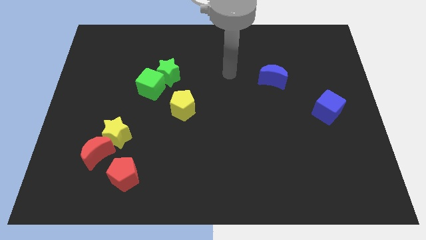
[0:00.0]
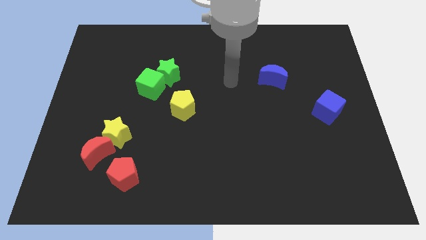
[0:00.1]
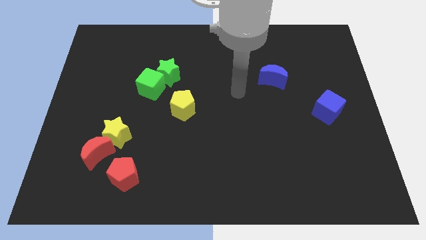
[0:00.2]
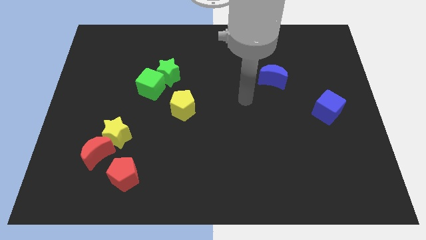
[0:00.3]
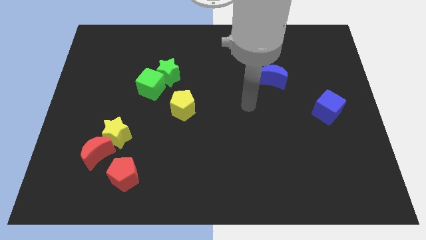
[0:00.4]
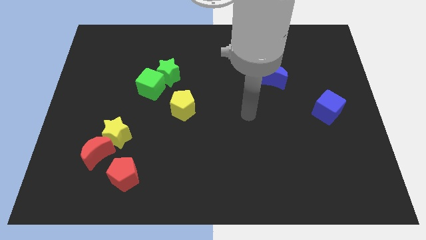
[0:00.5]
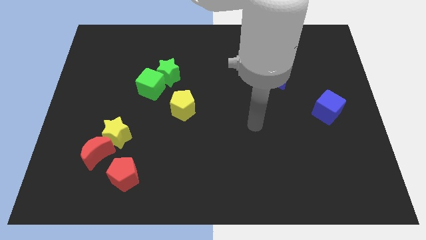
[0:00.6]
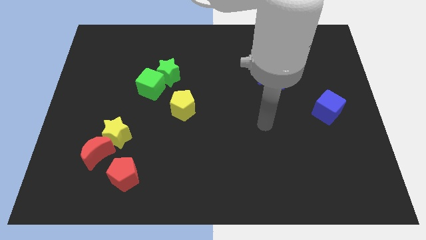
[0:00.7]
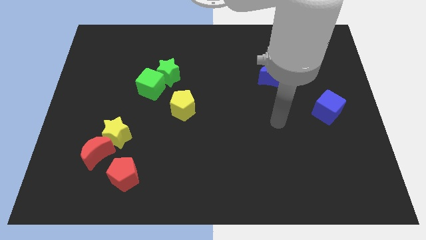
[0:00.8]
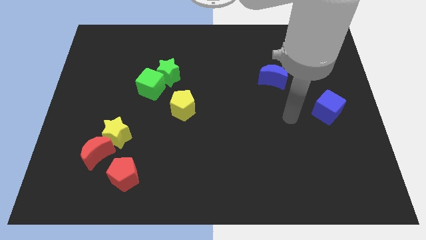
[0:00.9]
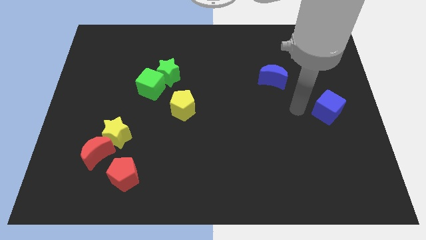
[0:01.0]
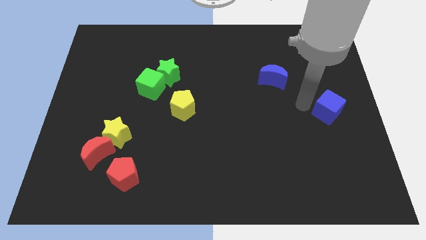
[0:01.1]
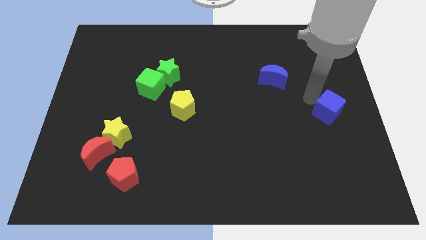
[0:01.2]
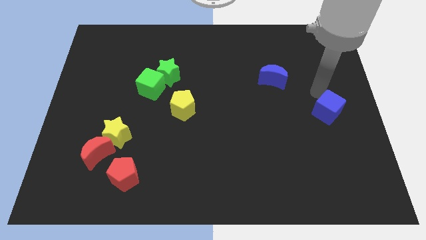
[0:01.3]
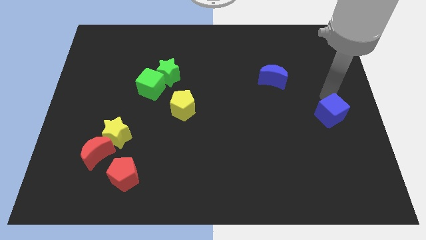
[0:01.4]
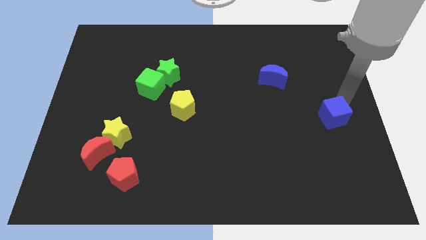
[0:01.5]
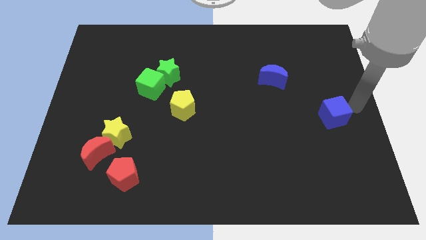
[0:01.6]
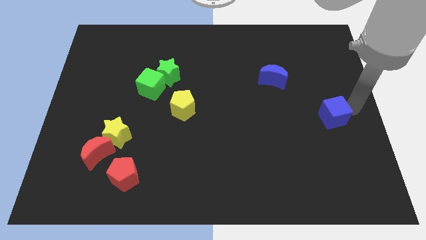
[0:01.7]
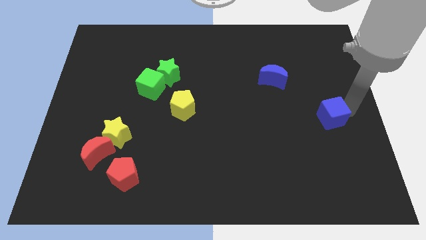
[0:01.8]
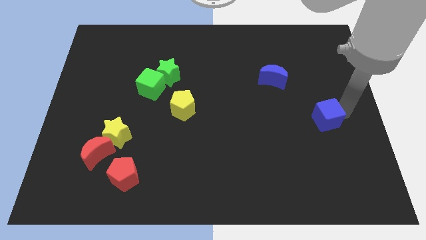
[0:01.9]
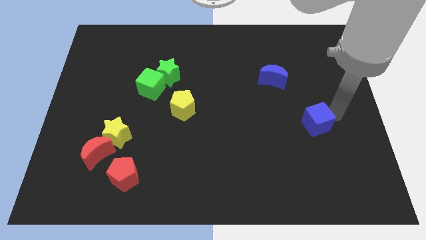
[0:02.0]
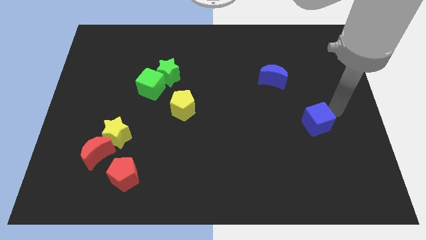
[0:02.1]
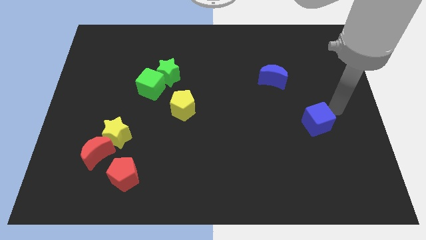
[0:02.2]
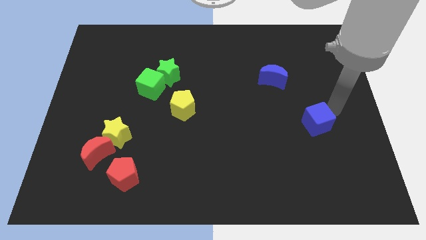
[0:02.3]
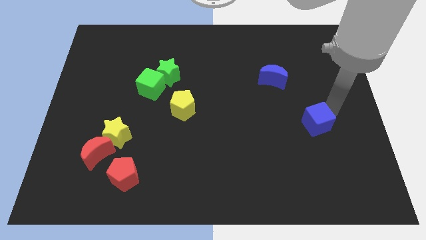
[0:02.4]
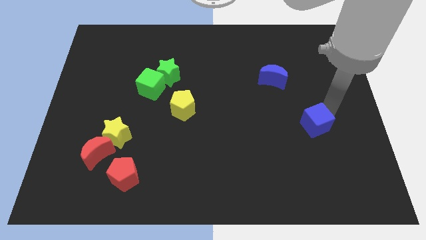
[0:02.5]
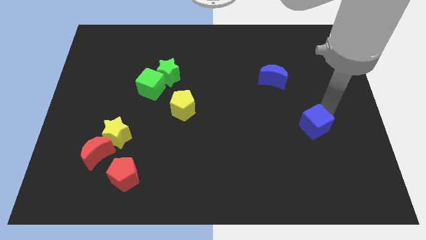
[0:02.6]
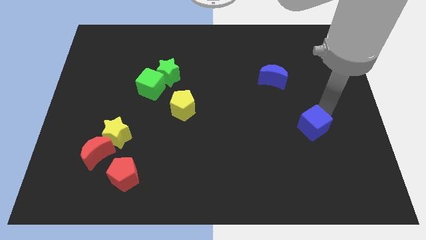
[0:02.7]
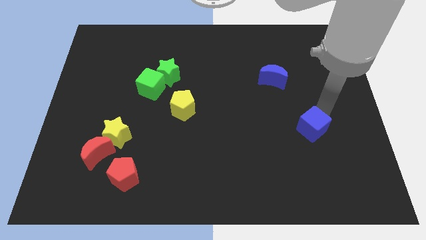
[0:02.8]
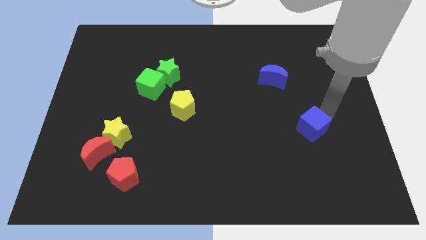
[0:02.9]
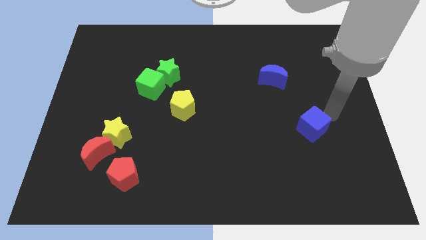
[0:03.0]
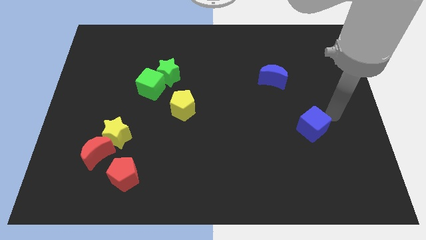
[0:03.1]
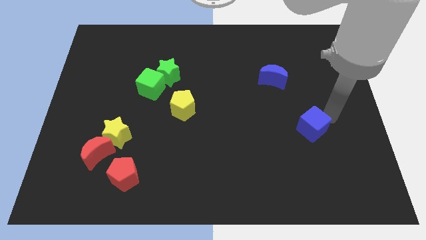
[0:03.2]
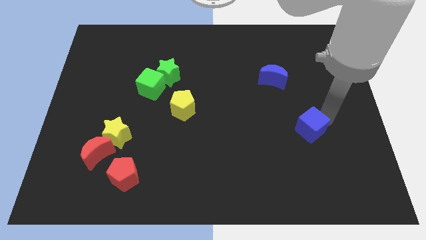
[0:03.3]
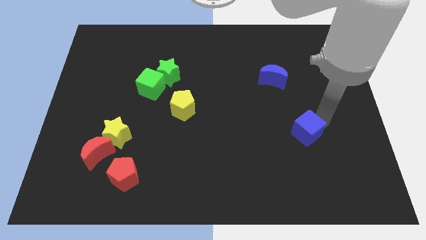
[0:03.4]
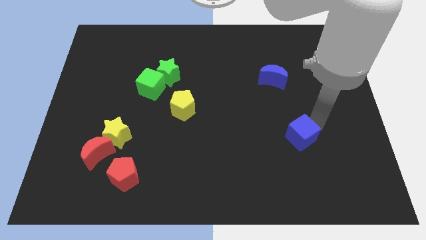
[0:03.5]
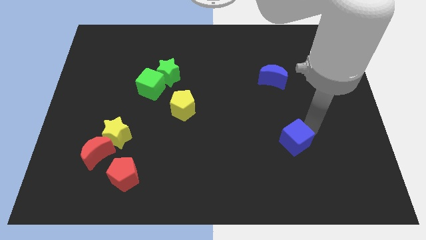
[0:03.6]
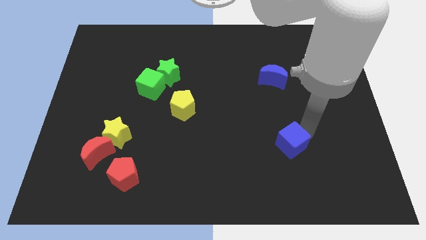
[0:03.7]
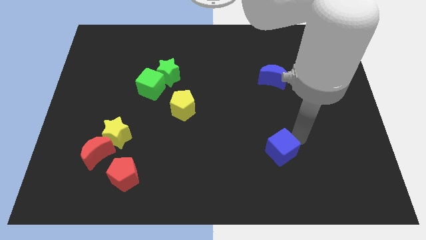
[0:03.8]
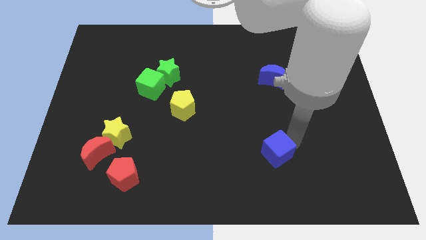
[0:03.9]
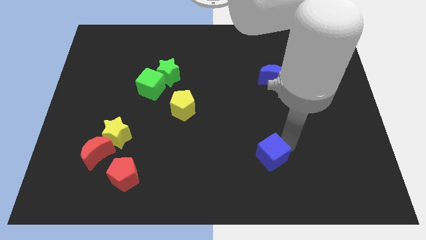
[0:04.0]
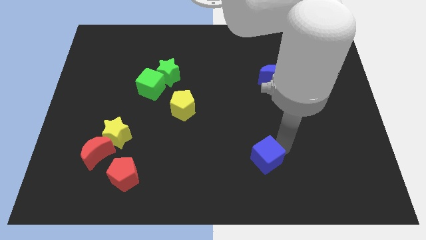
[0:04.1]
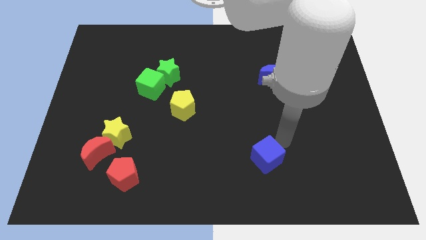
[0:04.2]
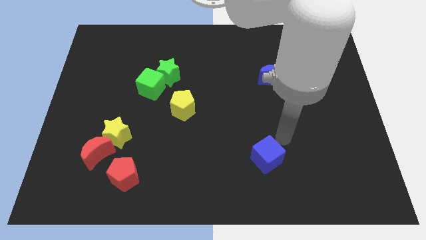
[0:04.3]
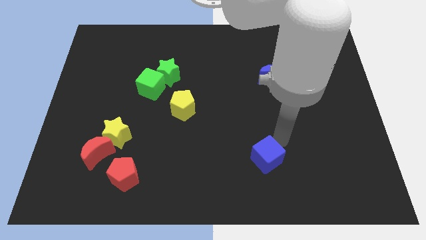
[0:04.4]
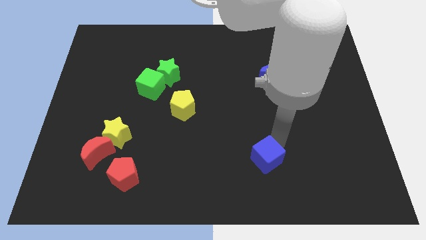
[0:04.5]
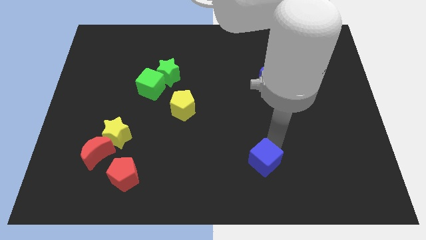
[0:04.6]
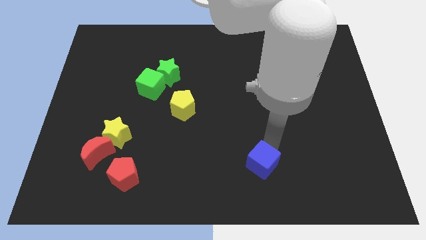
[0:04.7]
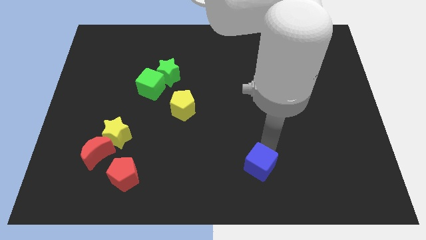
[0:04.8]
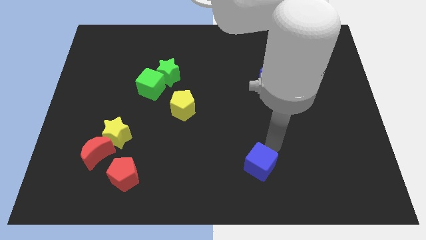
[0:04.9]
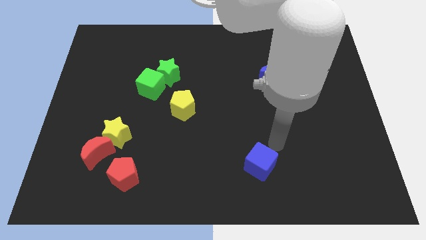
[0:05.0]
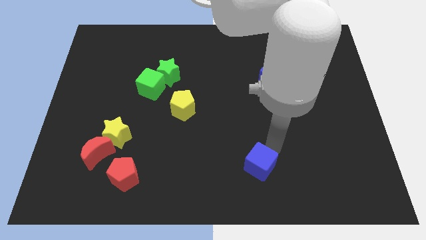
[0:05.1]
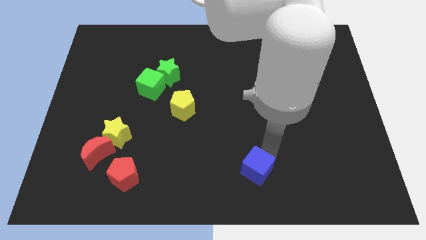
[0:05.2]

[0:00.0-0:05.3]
move the blue cube to the bottom side

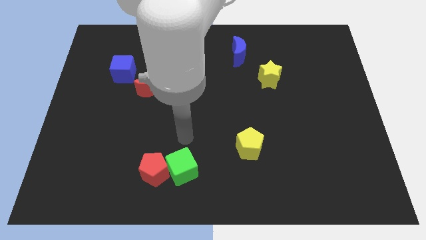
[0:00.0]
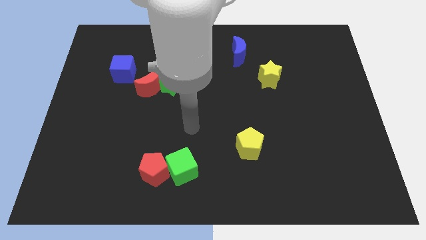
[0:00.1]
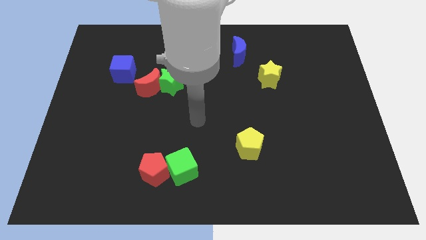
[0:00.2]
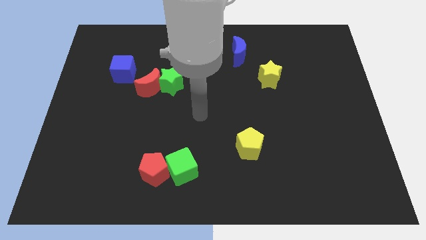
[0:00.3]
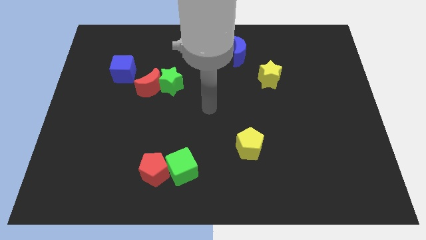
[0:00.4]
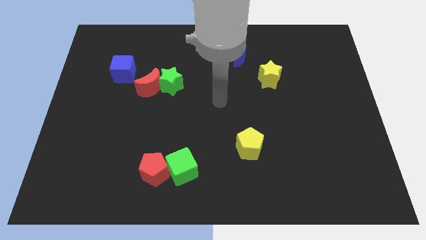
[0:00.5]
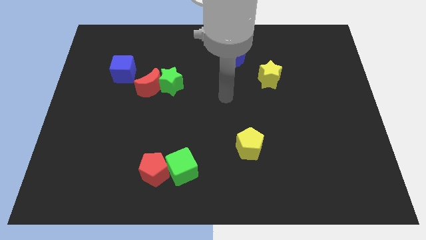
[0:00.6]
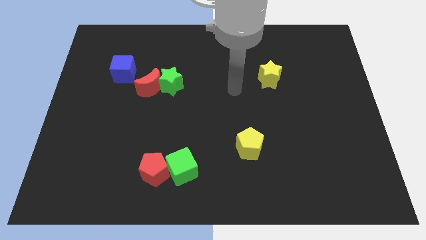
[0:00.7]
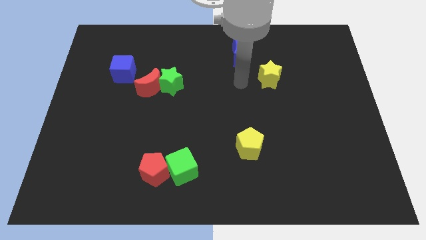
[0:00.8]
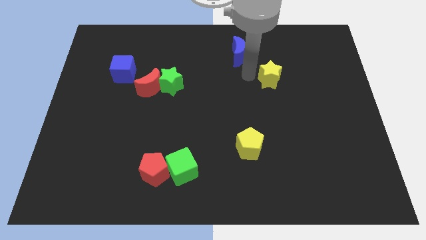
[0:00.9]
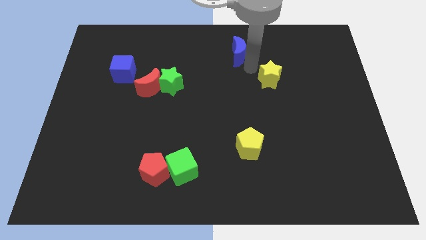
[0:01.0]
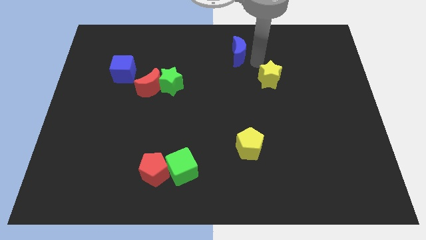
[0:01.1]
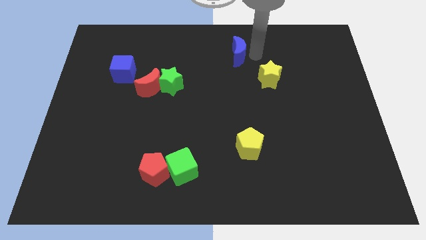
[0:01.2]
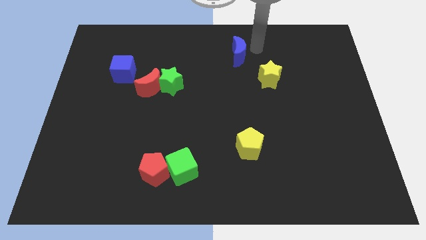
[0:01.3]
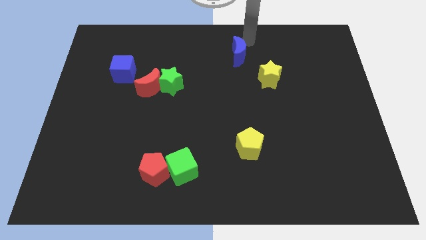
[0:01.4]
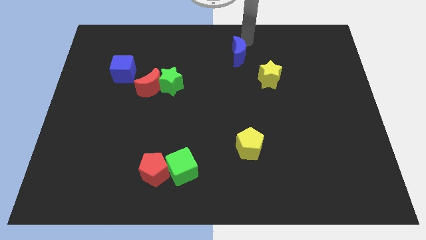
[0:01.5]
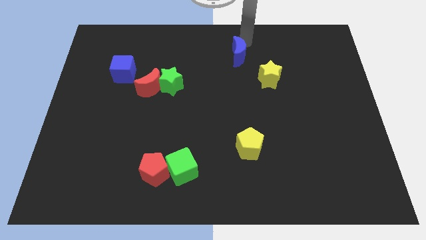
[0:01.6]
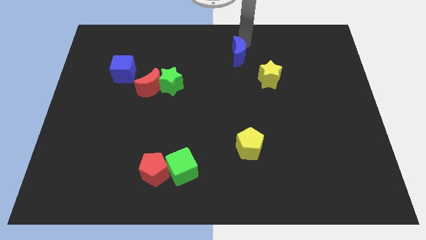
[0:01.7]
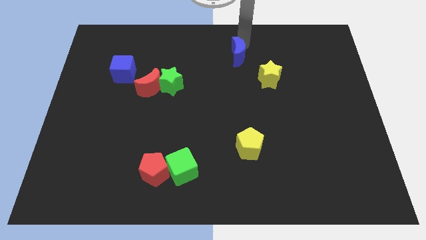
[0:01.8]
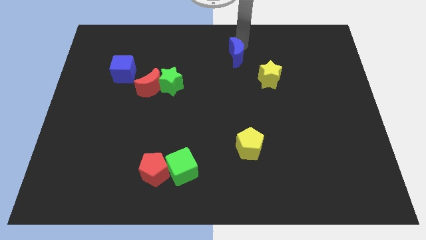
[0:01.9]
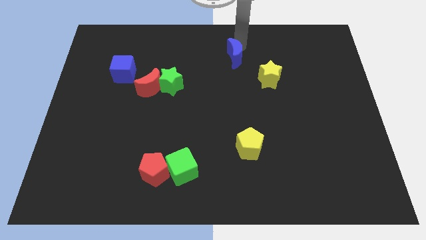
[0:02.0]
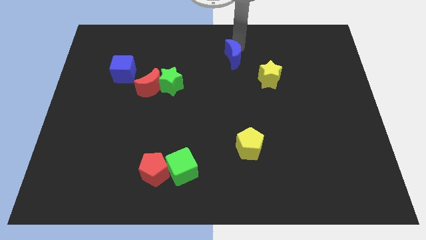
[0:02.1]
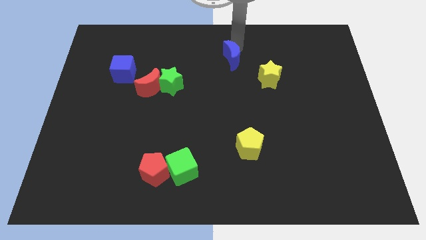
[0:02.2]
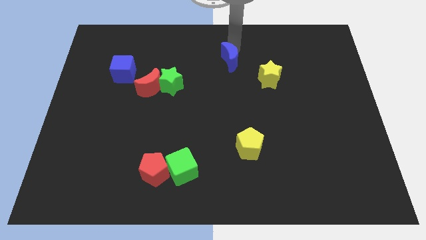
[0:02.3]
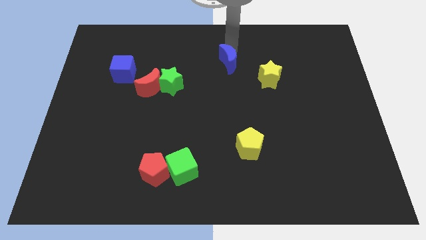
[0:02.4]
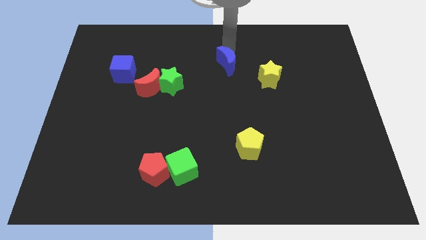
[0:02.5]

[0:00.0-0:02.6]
put the blue moon to the center of the board
